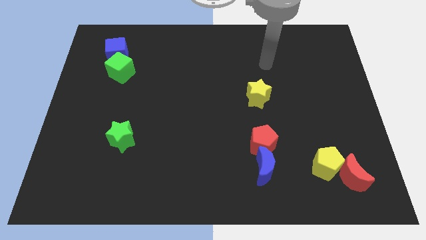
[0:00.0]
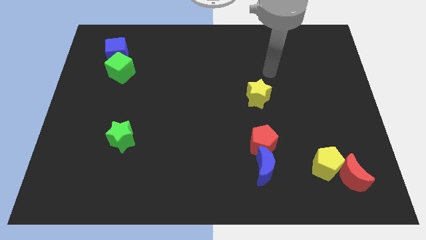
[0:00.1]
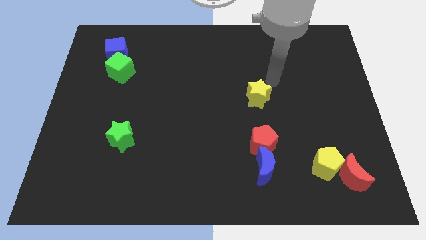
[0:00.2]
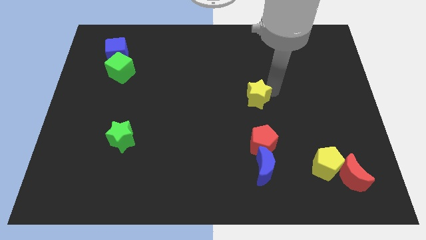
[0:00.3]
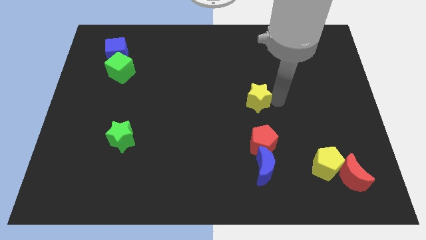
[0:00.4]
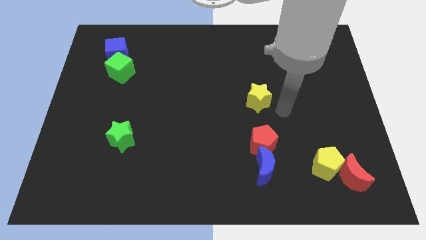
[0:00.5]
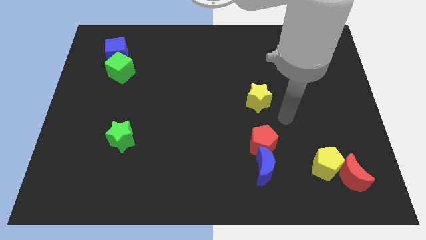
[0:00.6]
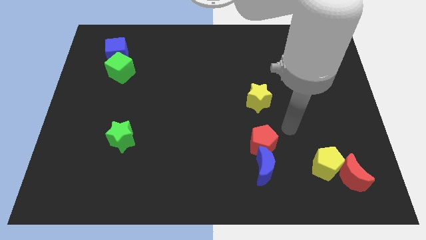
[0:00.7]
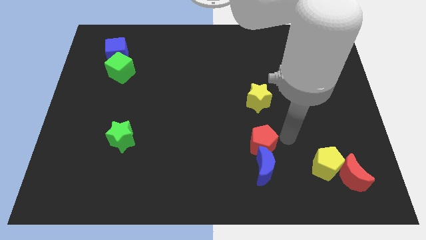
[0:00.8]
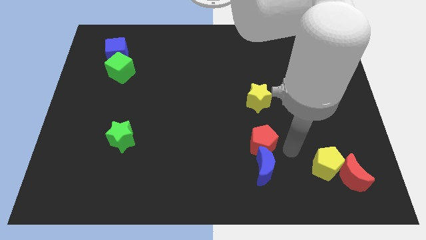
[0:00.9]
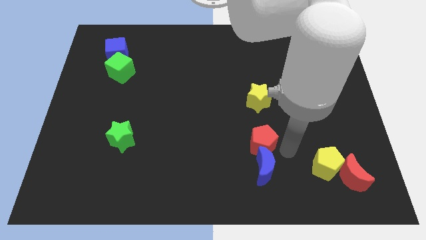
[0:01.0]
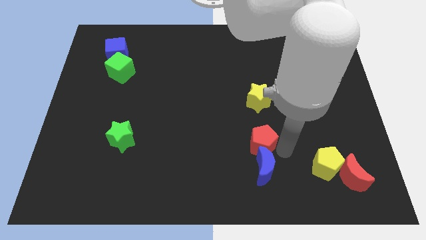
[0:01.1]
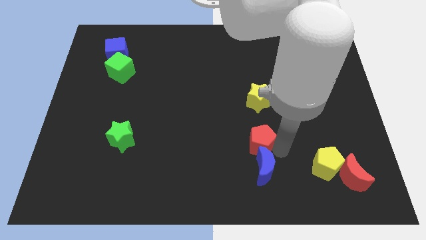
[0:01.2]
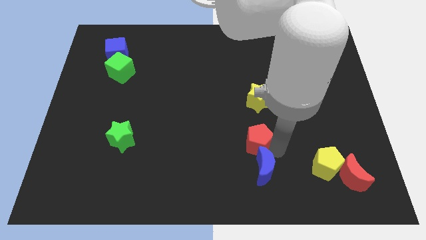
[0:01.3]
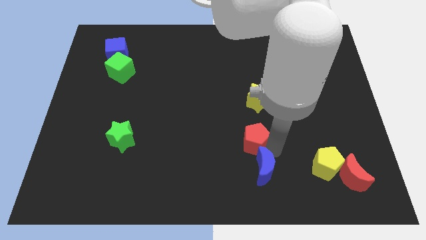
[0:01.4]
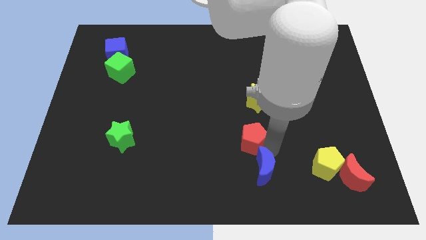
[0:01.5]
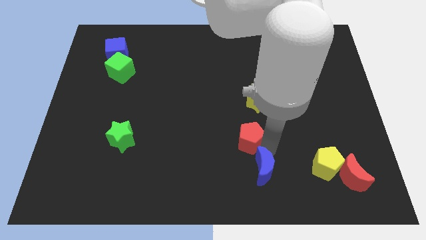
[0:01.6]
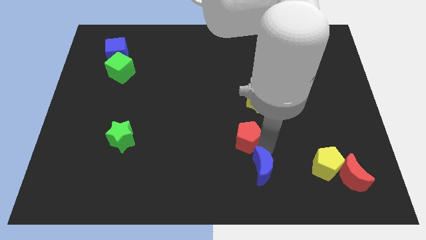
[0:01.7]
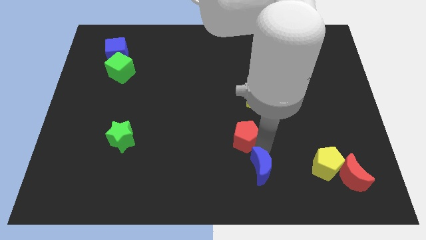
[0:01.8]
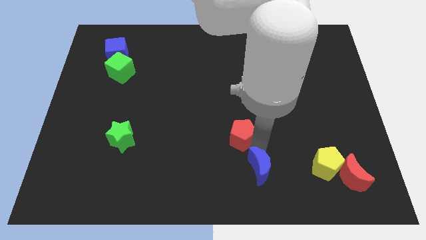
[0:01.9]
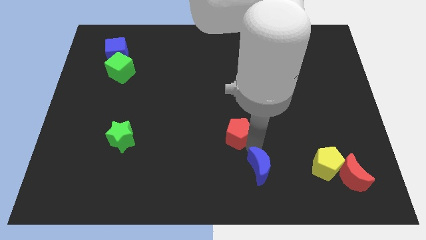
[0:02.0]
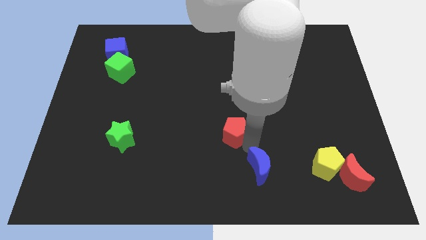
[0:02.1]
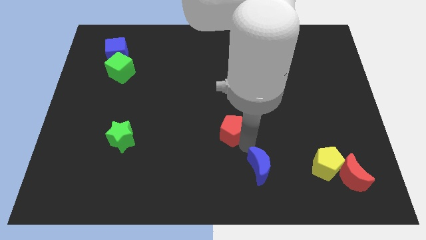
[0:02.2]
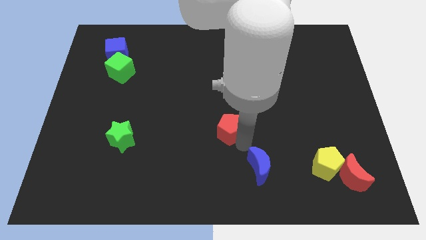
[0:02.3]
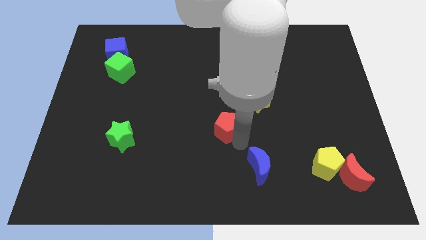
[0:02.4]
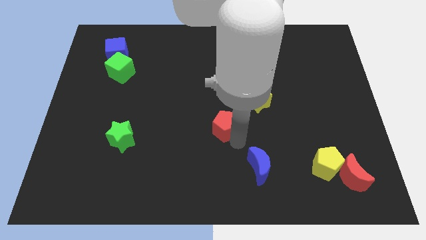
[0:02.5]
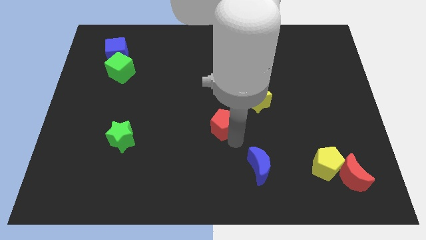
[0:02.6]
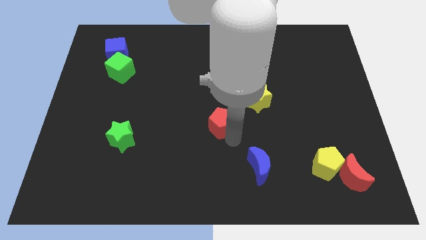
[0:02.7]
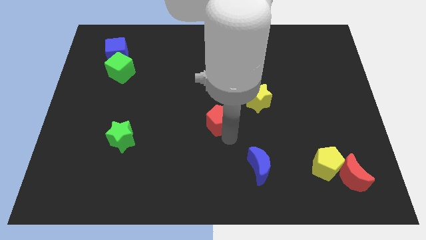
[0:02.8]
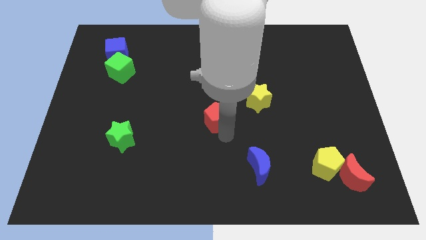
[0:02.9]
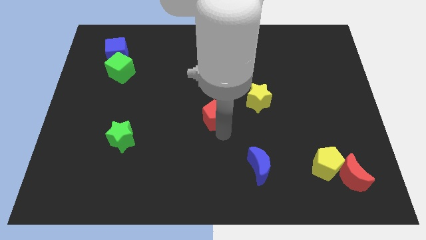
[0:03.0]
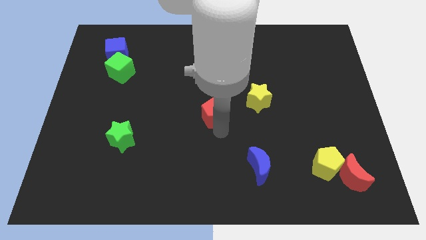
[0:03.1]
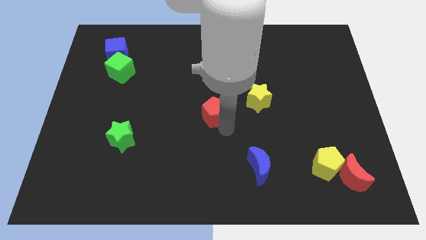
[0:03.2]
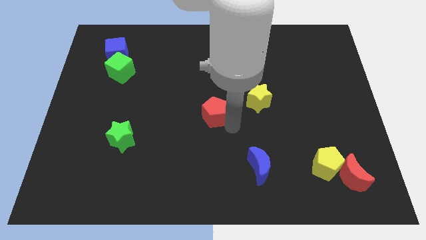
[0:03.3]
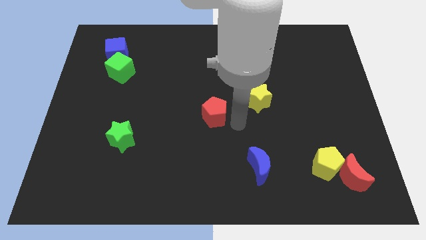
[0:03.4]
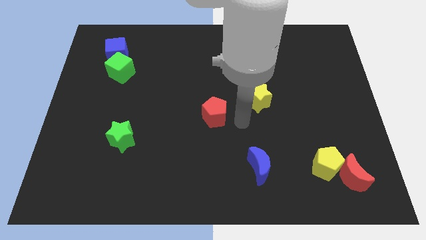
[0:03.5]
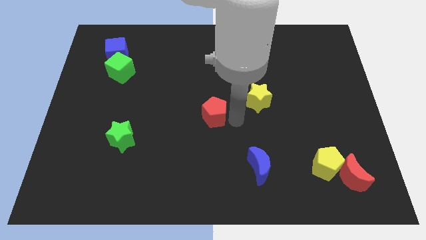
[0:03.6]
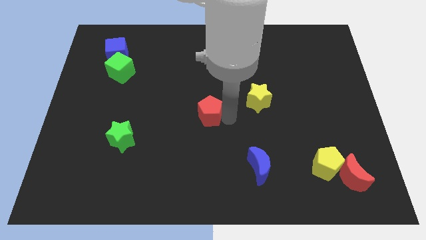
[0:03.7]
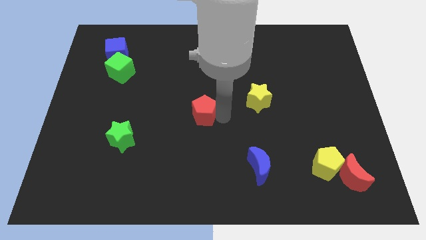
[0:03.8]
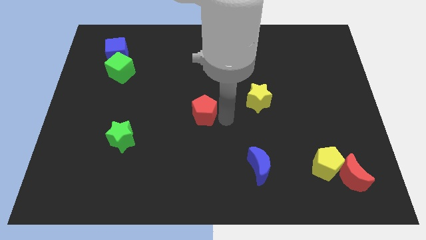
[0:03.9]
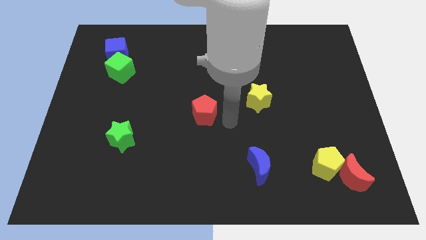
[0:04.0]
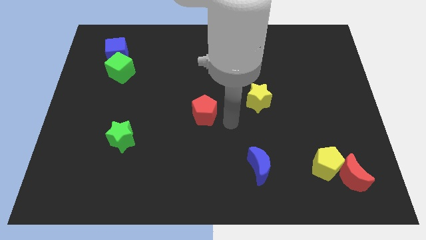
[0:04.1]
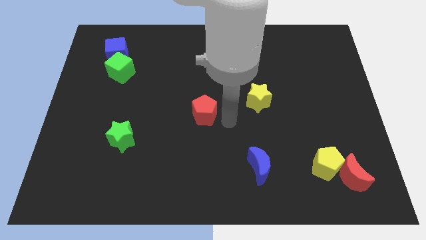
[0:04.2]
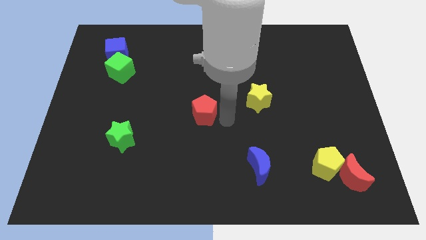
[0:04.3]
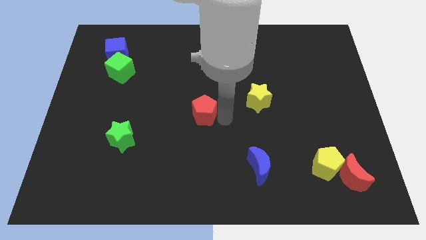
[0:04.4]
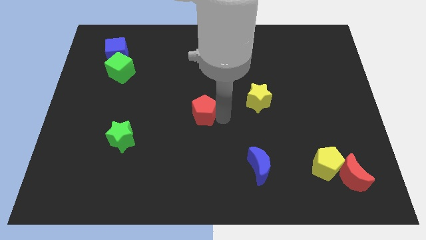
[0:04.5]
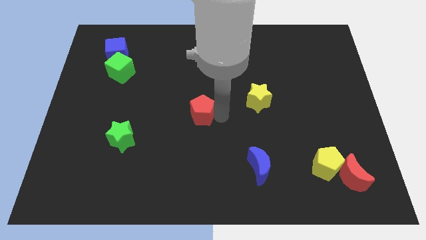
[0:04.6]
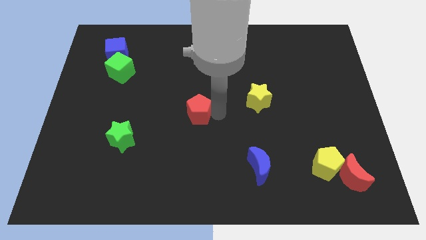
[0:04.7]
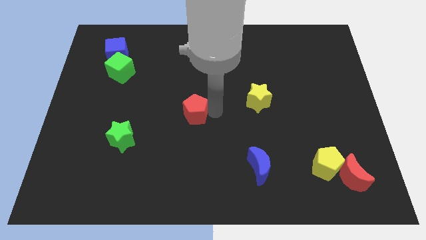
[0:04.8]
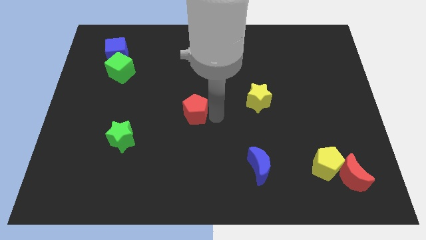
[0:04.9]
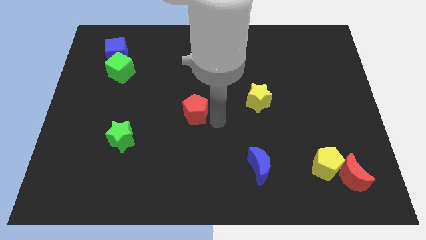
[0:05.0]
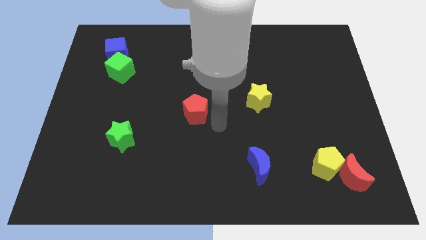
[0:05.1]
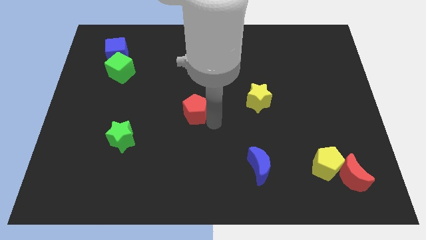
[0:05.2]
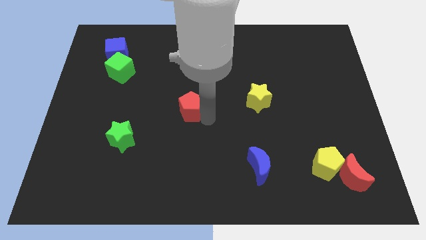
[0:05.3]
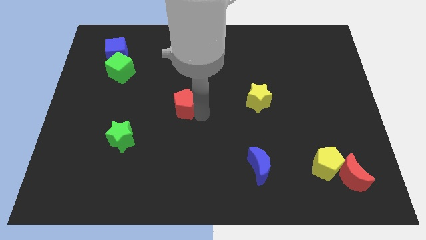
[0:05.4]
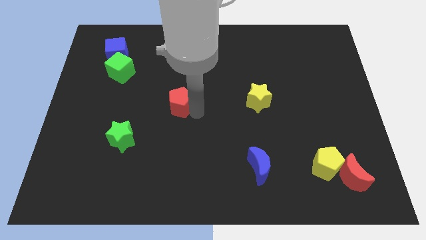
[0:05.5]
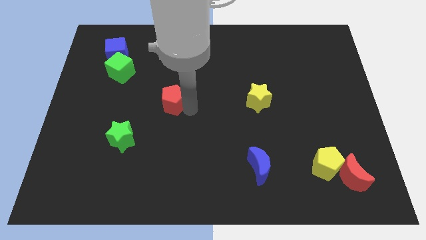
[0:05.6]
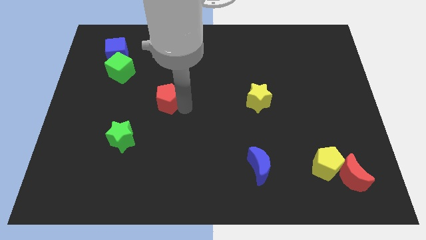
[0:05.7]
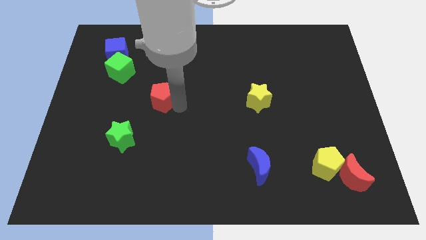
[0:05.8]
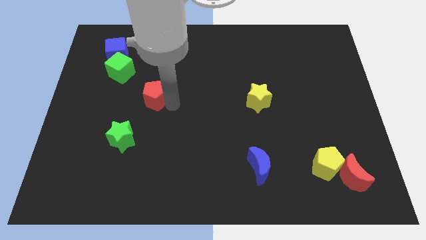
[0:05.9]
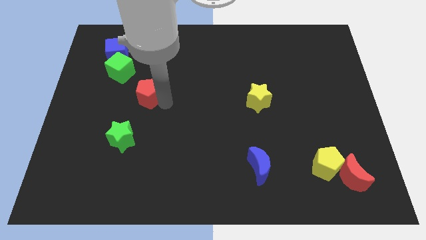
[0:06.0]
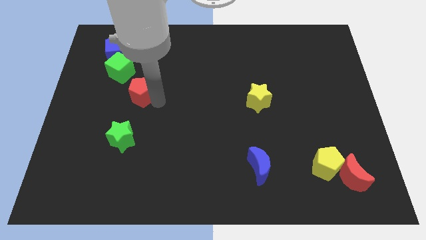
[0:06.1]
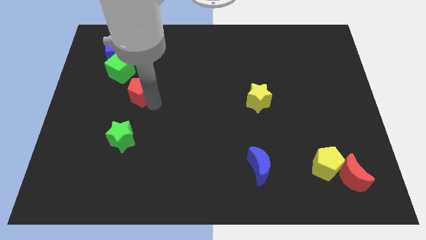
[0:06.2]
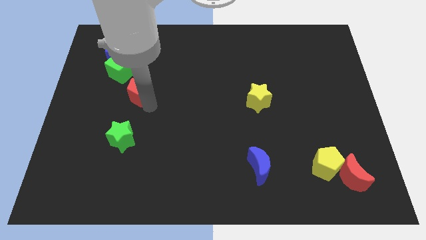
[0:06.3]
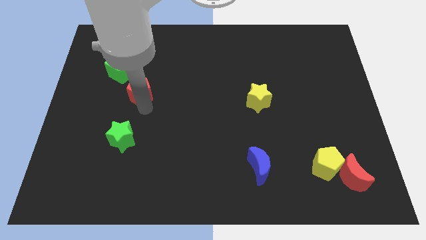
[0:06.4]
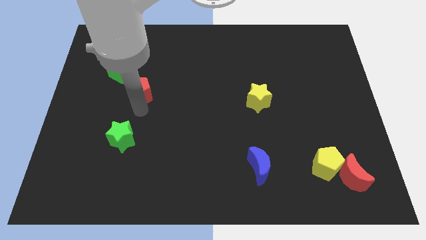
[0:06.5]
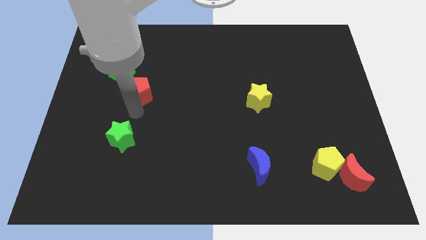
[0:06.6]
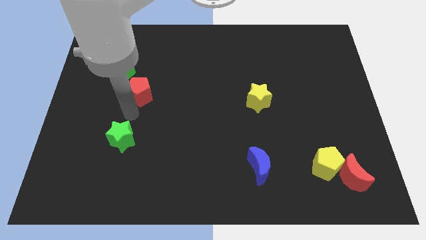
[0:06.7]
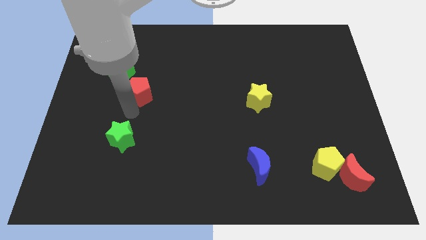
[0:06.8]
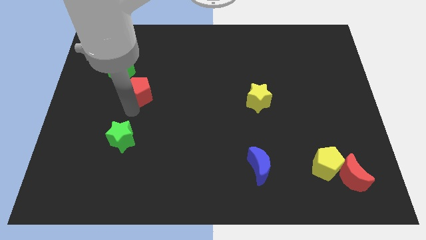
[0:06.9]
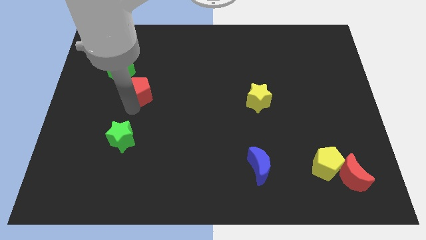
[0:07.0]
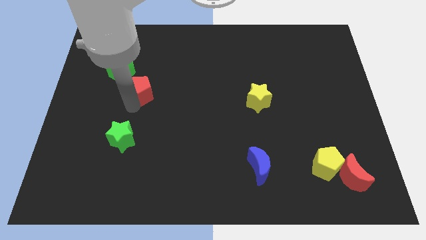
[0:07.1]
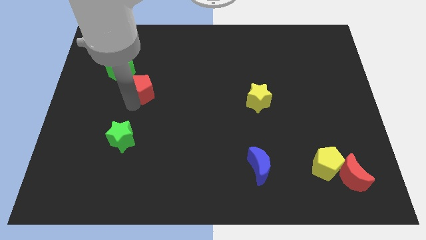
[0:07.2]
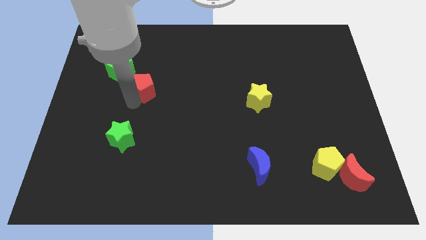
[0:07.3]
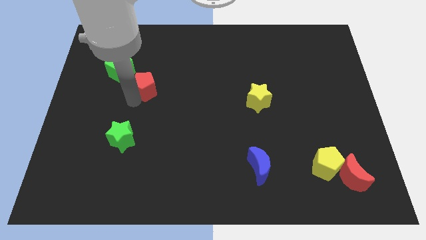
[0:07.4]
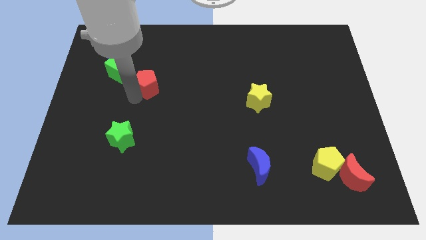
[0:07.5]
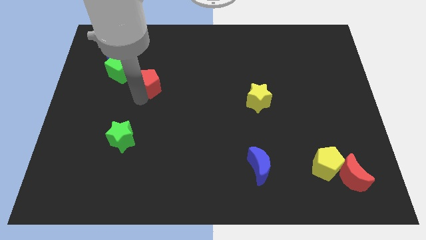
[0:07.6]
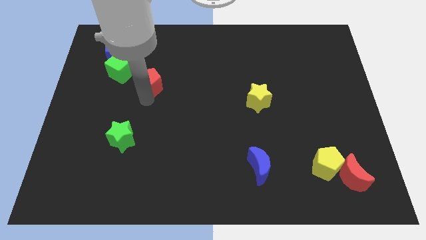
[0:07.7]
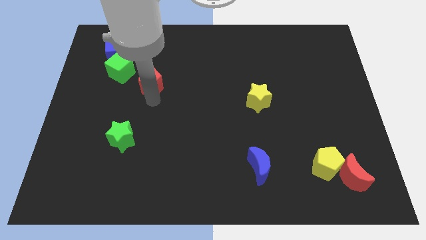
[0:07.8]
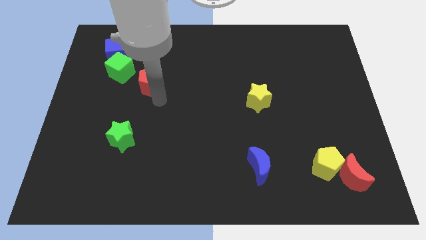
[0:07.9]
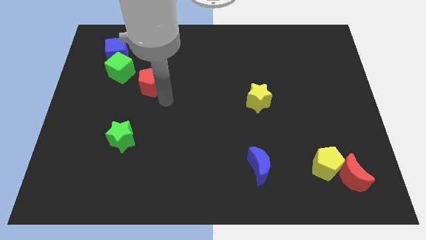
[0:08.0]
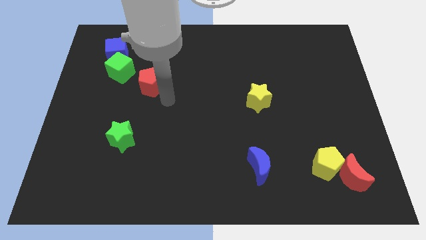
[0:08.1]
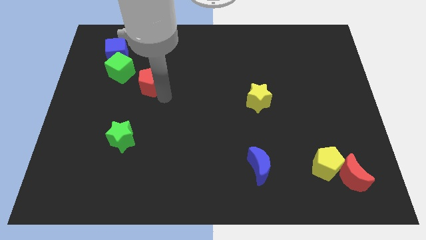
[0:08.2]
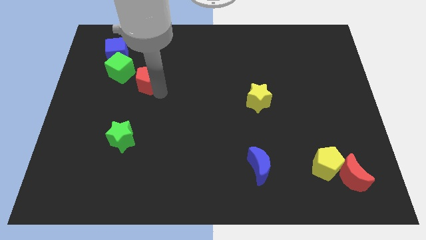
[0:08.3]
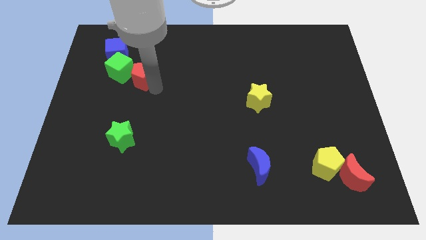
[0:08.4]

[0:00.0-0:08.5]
put the red pentagon diagonally down and to the right of the blue cube
